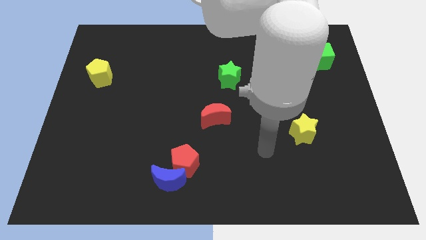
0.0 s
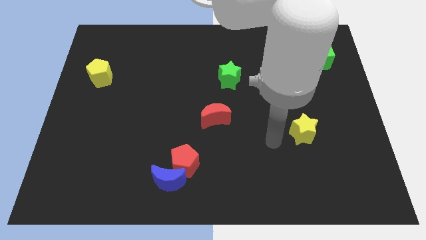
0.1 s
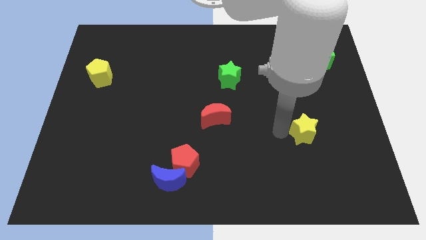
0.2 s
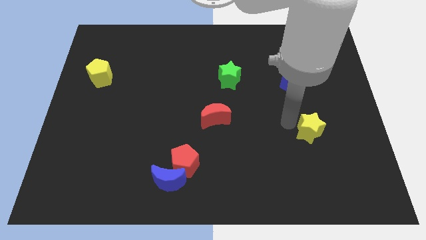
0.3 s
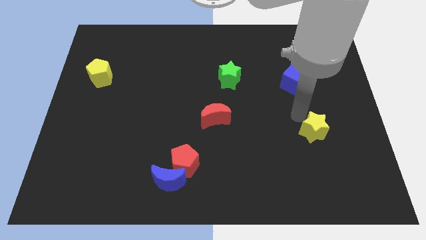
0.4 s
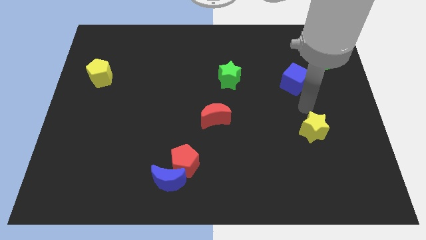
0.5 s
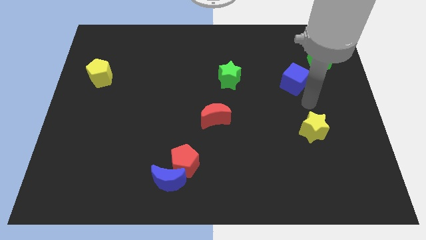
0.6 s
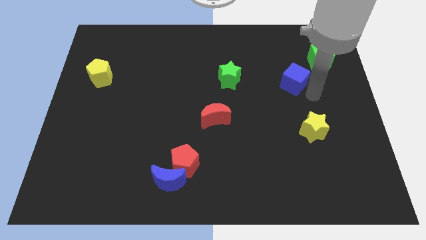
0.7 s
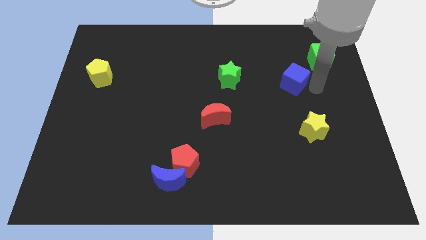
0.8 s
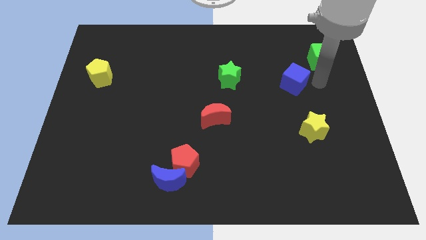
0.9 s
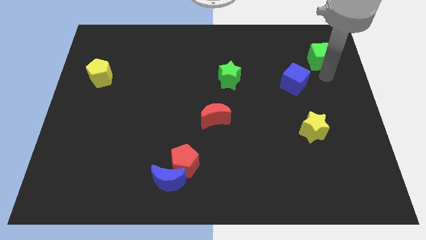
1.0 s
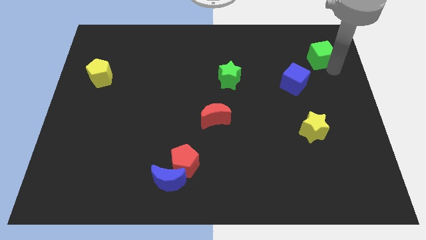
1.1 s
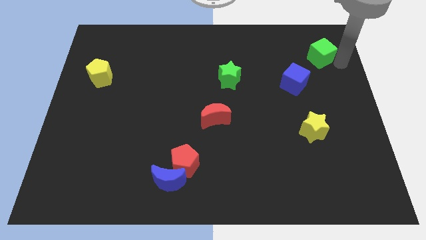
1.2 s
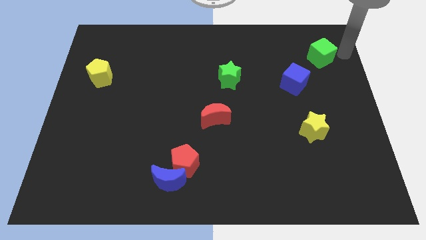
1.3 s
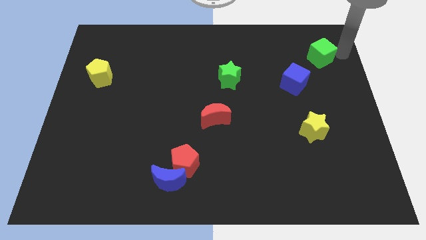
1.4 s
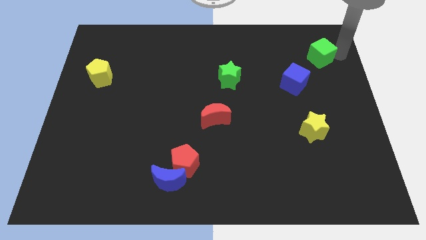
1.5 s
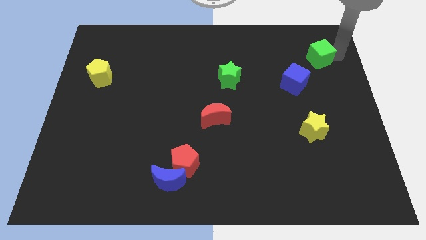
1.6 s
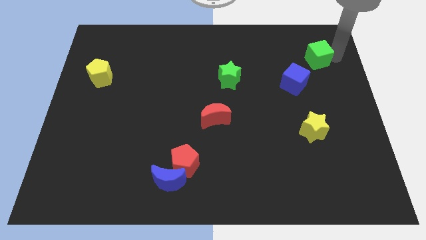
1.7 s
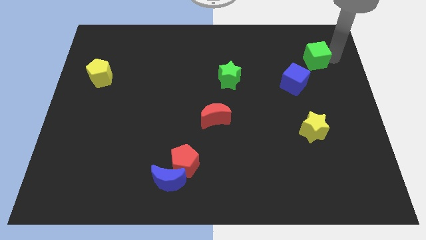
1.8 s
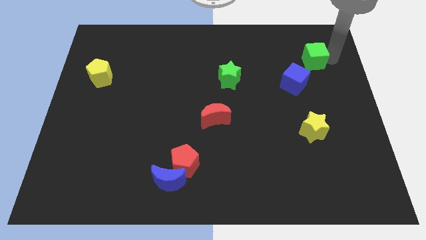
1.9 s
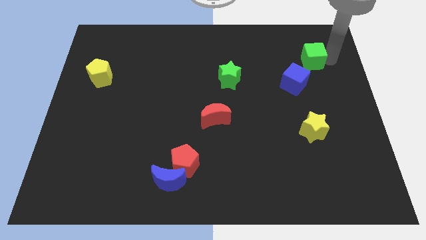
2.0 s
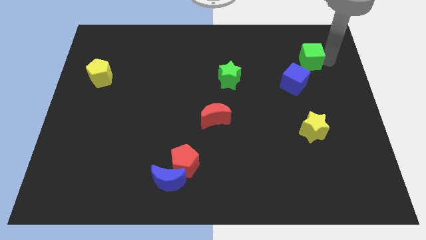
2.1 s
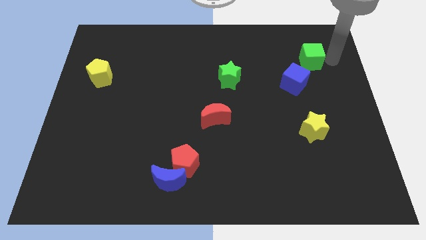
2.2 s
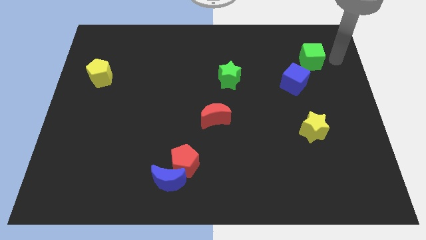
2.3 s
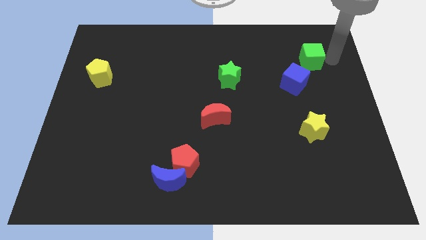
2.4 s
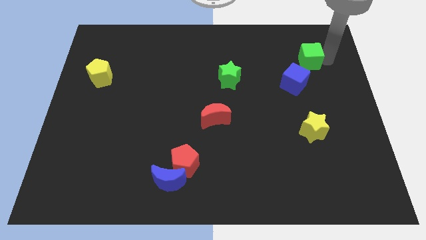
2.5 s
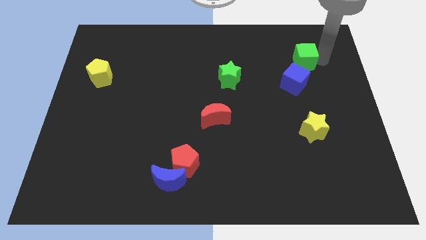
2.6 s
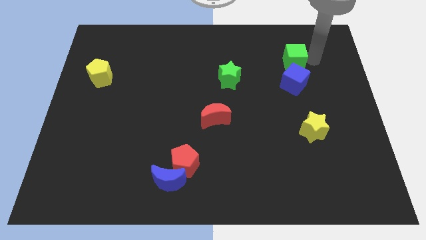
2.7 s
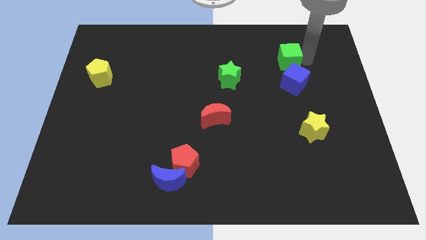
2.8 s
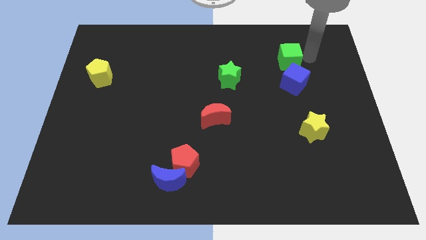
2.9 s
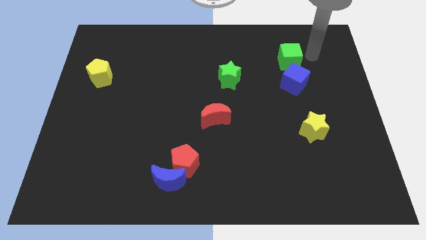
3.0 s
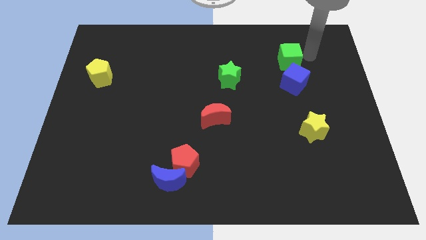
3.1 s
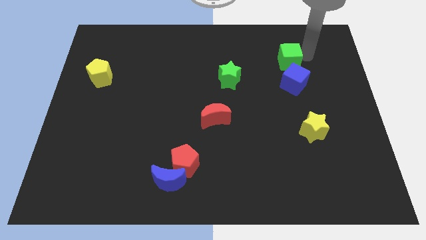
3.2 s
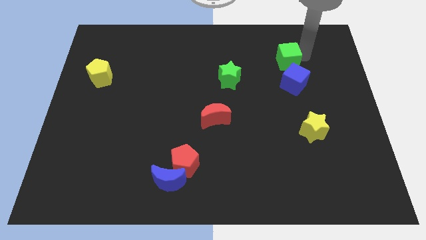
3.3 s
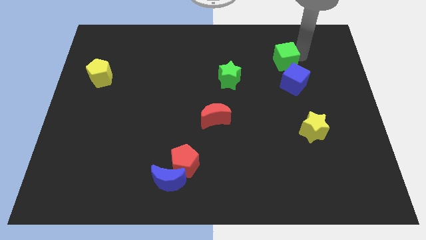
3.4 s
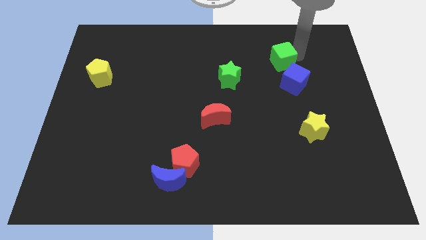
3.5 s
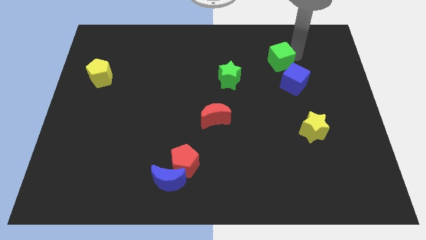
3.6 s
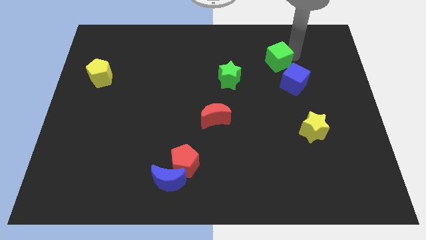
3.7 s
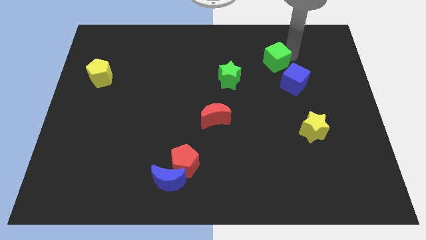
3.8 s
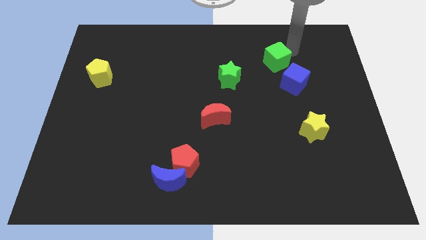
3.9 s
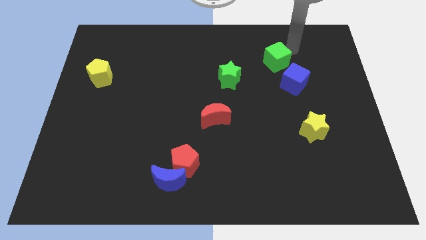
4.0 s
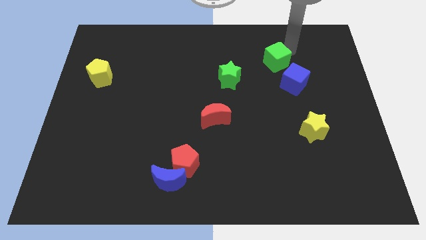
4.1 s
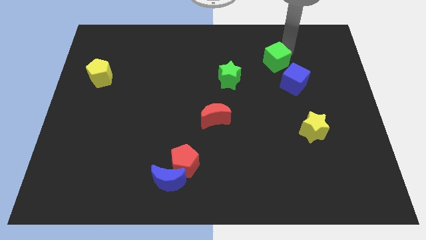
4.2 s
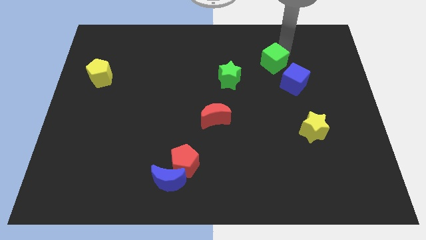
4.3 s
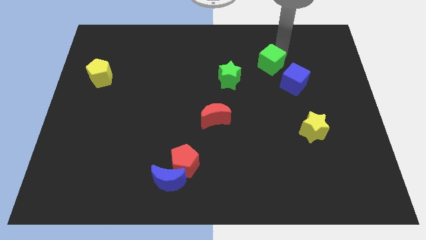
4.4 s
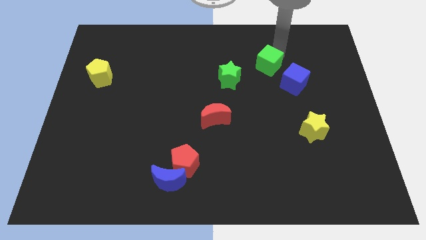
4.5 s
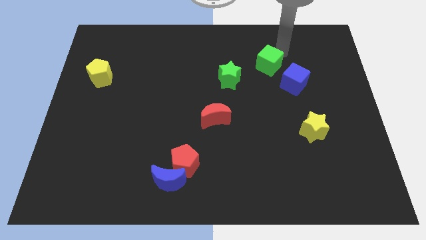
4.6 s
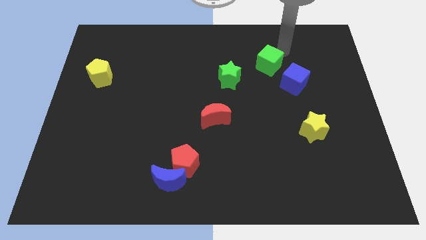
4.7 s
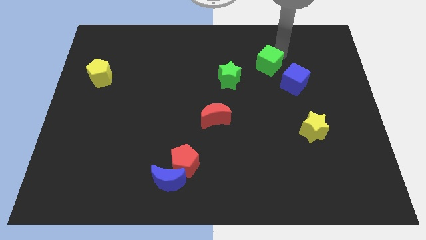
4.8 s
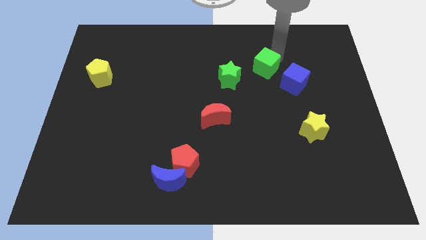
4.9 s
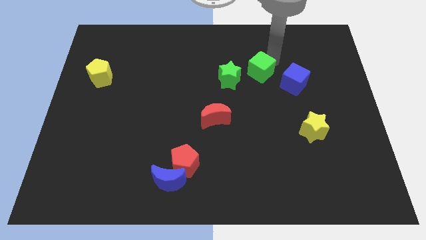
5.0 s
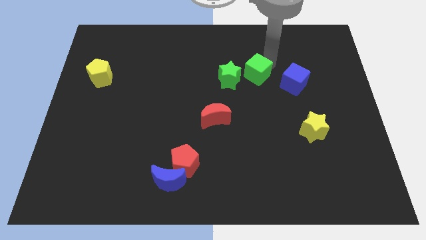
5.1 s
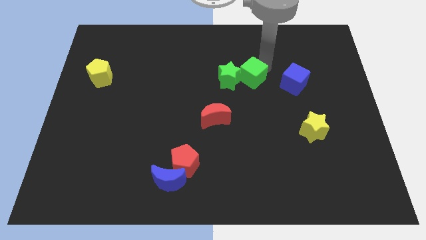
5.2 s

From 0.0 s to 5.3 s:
move the green cube to the middle

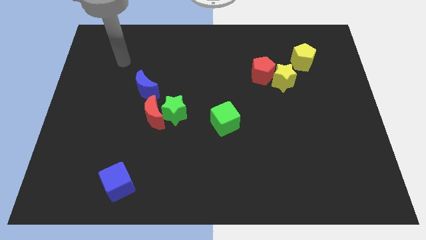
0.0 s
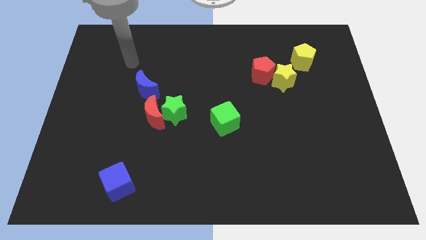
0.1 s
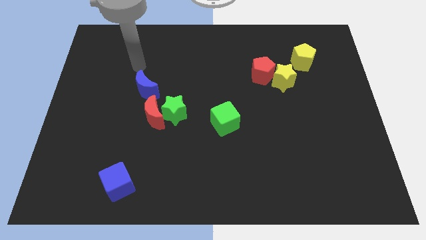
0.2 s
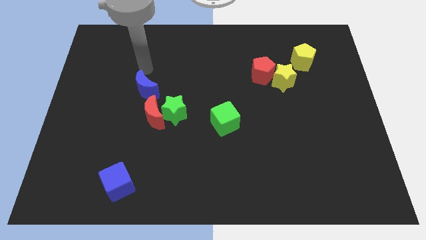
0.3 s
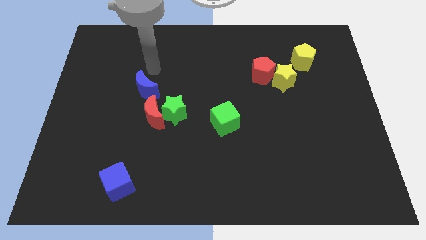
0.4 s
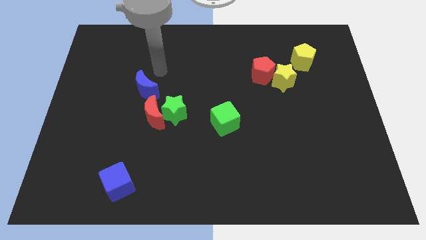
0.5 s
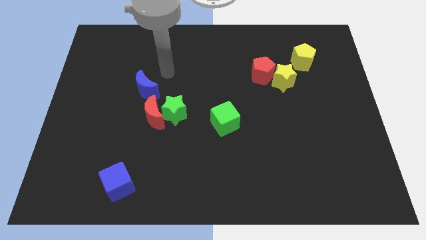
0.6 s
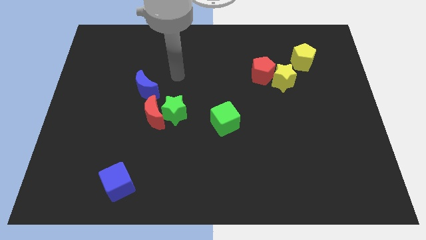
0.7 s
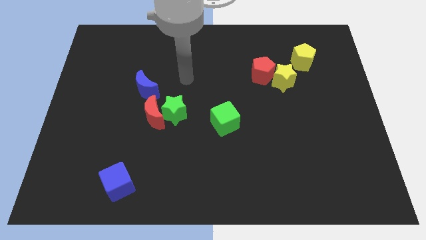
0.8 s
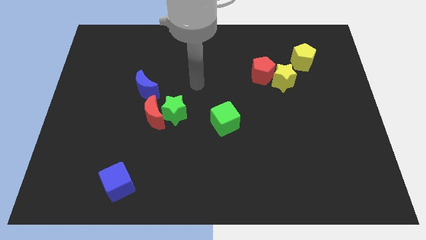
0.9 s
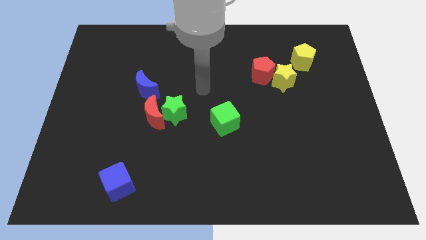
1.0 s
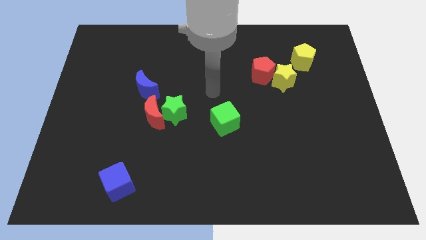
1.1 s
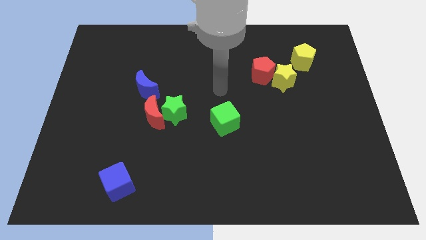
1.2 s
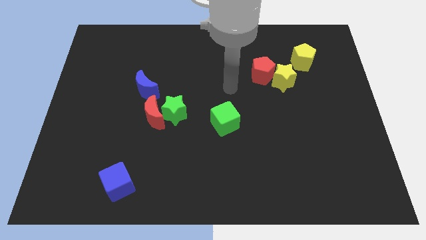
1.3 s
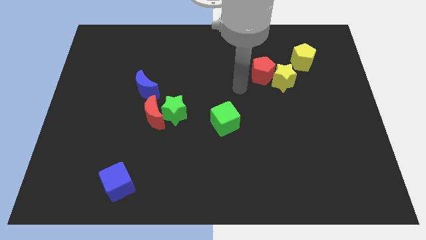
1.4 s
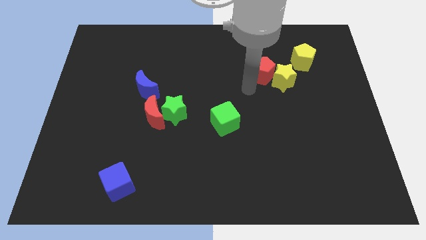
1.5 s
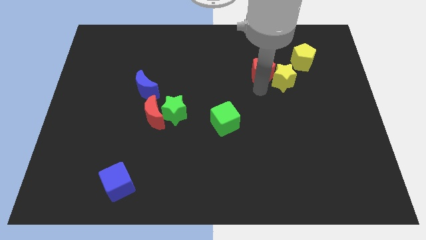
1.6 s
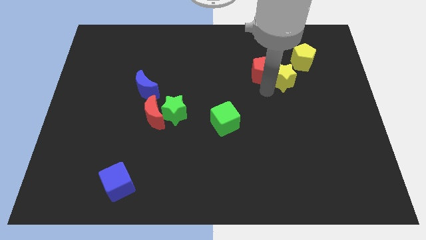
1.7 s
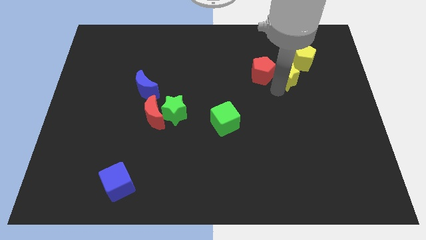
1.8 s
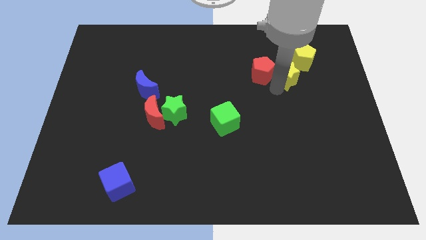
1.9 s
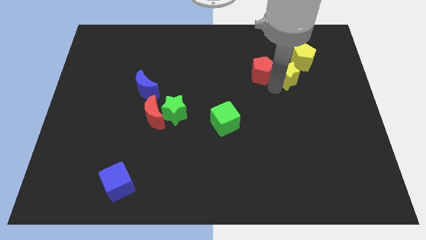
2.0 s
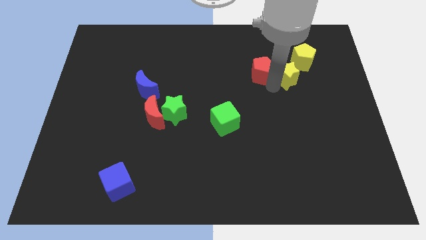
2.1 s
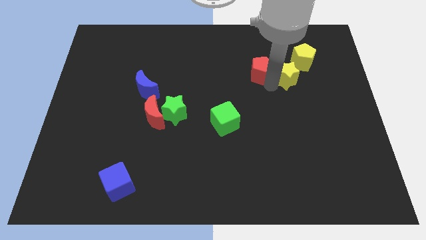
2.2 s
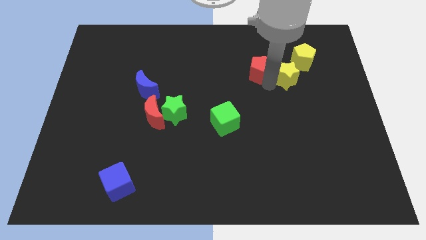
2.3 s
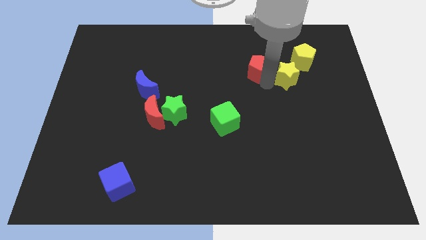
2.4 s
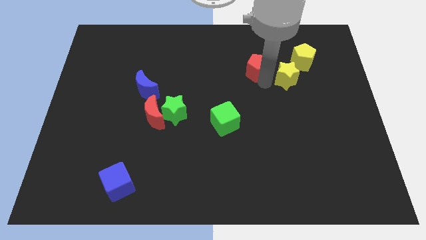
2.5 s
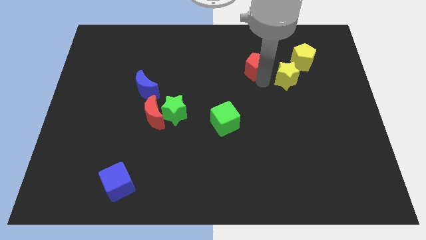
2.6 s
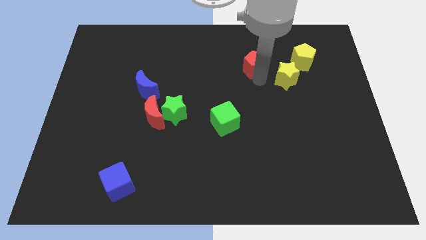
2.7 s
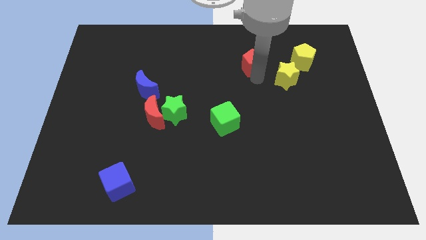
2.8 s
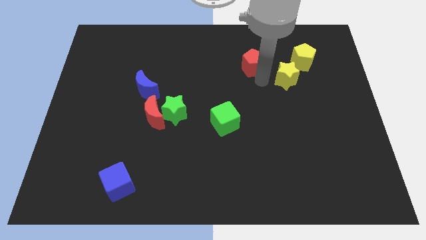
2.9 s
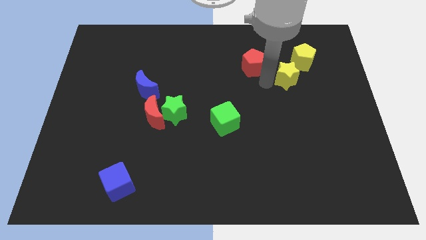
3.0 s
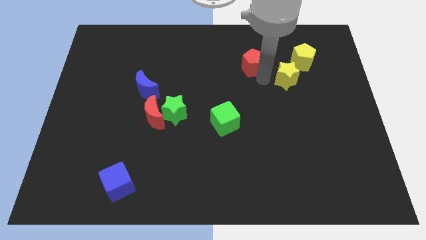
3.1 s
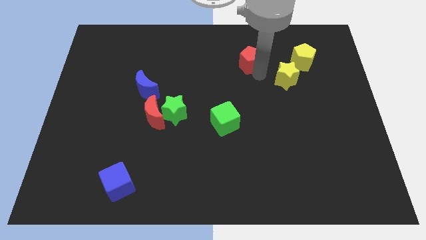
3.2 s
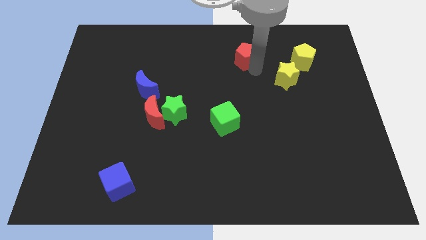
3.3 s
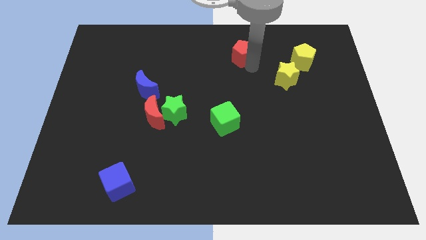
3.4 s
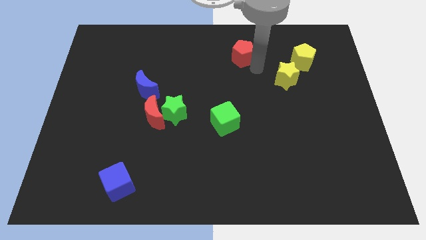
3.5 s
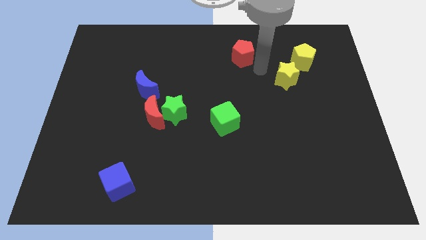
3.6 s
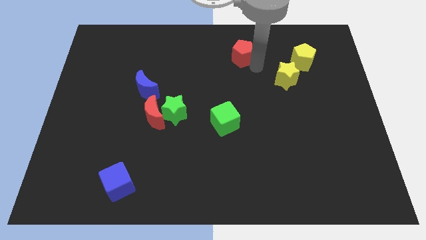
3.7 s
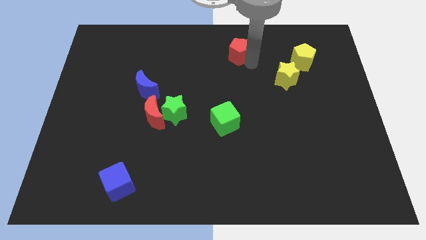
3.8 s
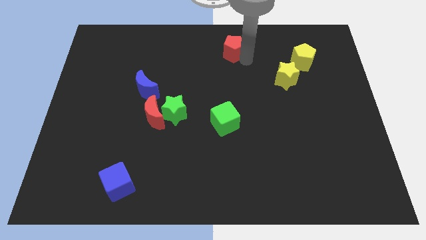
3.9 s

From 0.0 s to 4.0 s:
move the red pentagon to the top side
